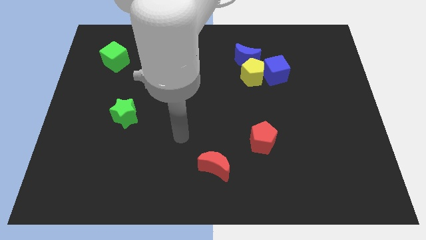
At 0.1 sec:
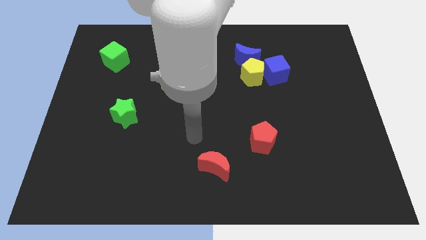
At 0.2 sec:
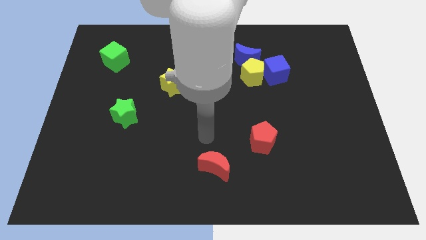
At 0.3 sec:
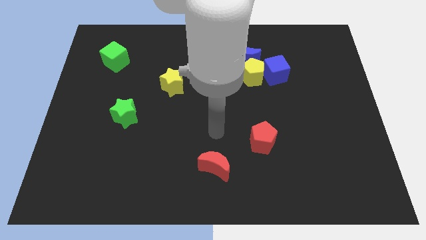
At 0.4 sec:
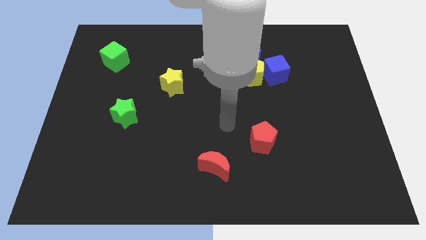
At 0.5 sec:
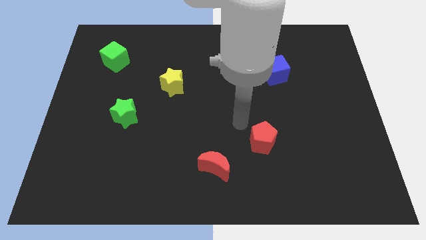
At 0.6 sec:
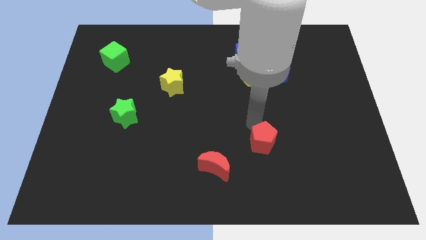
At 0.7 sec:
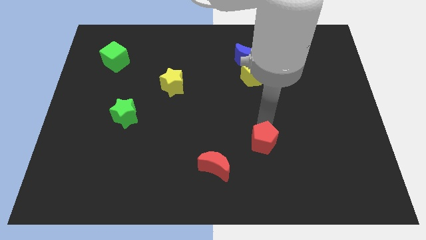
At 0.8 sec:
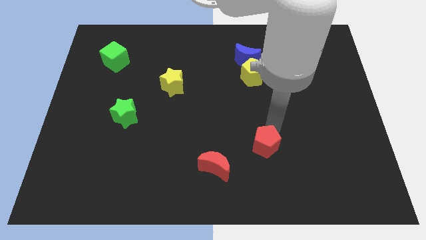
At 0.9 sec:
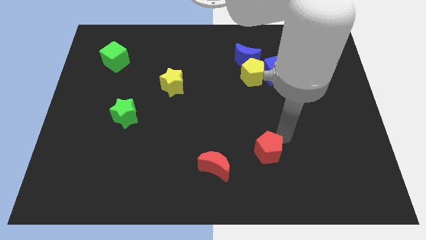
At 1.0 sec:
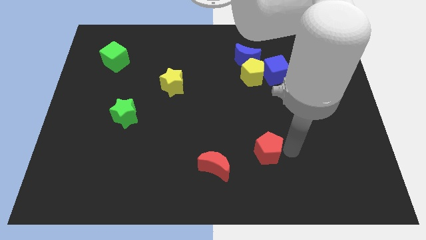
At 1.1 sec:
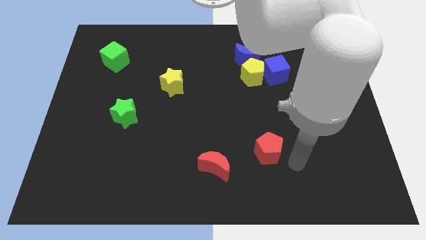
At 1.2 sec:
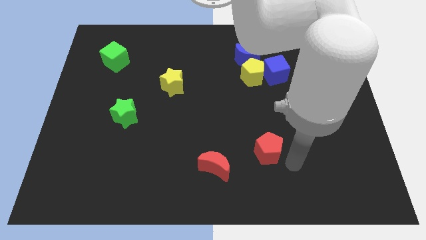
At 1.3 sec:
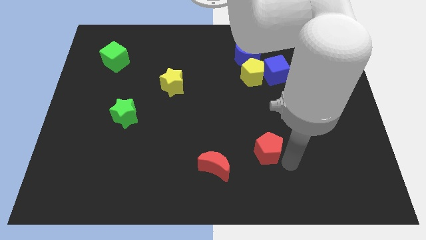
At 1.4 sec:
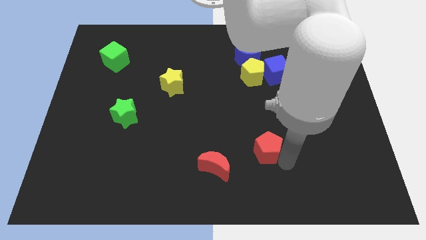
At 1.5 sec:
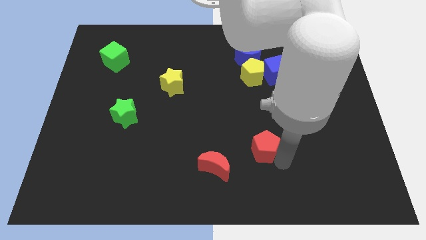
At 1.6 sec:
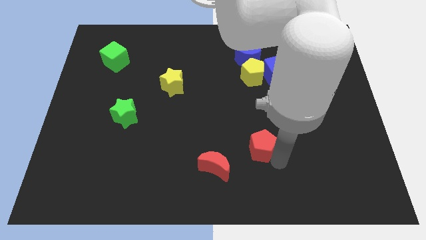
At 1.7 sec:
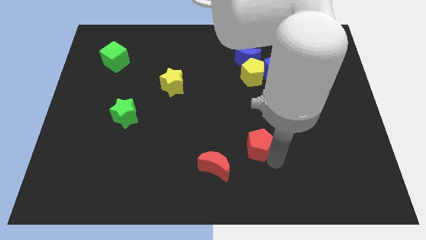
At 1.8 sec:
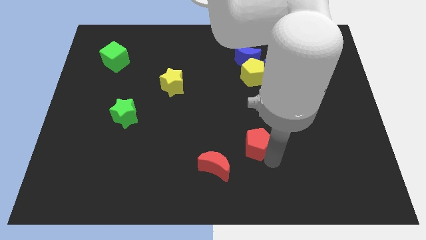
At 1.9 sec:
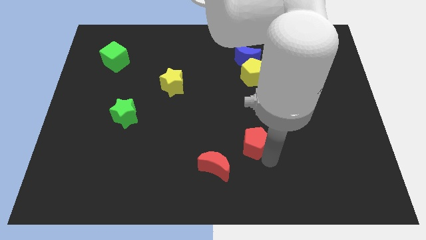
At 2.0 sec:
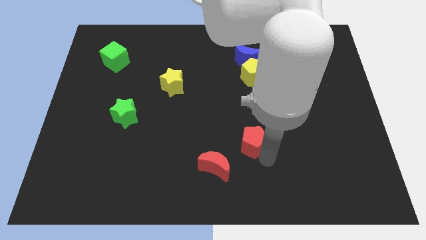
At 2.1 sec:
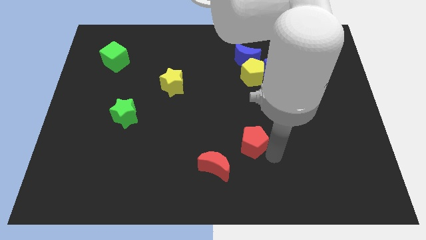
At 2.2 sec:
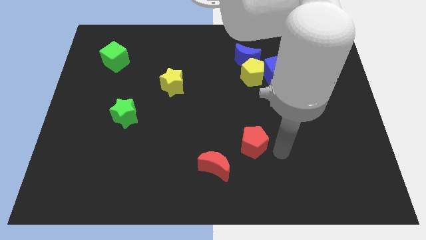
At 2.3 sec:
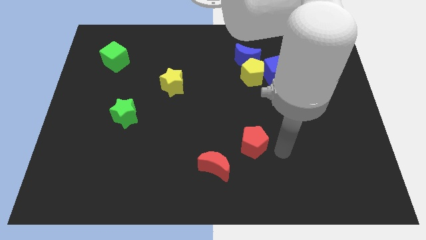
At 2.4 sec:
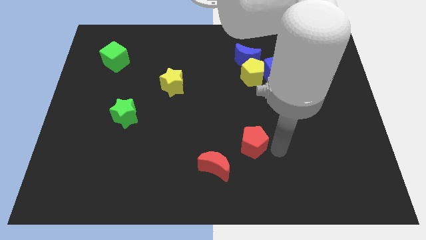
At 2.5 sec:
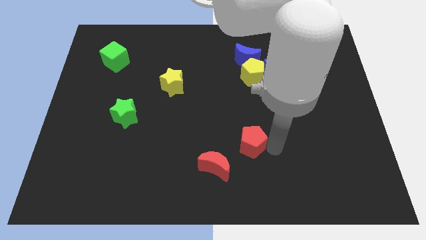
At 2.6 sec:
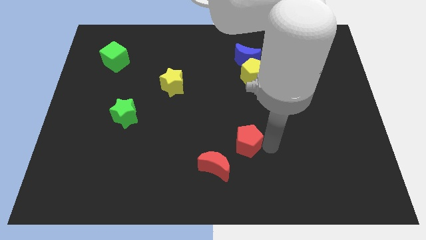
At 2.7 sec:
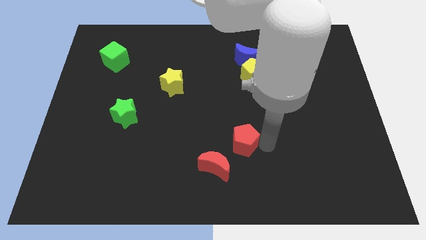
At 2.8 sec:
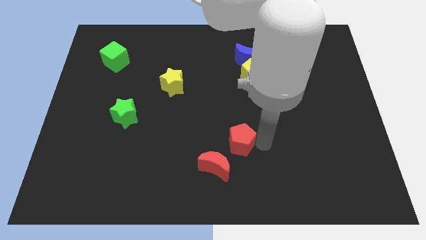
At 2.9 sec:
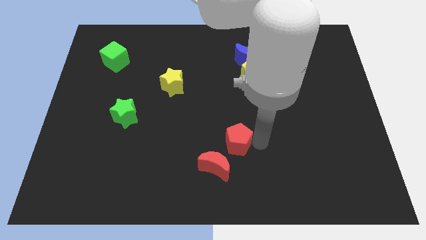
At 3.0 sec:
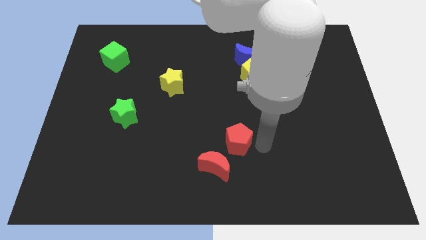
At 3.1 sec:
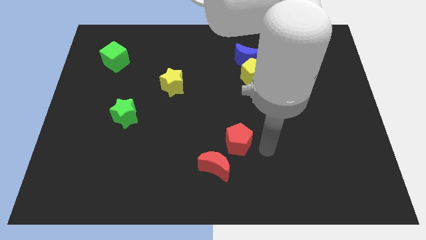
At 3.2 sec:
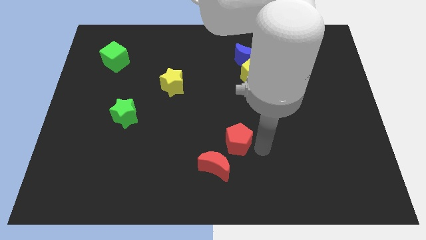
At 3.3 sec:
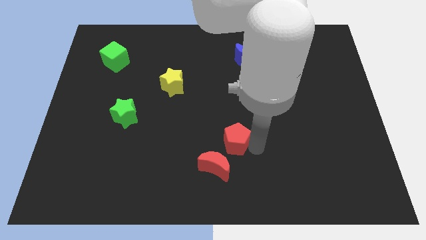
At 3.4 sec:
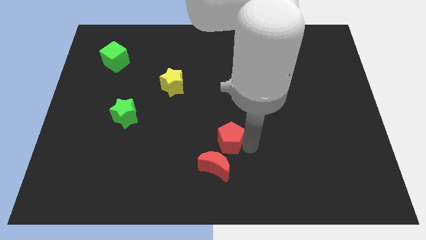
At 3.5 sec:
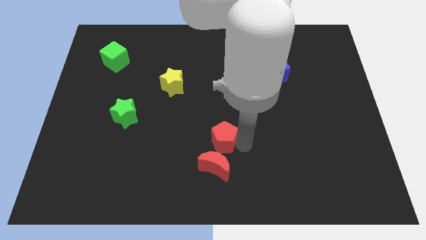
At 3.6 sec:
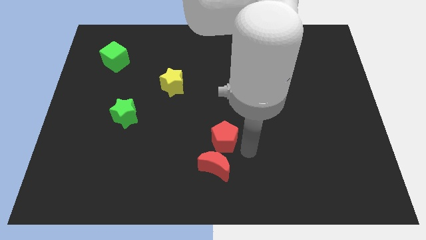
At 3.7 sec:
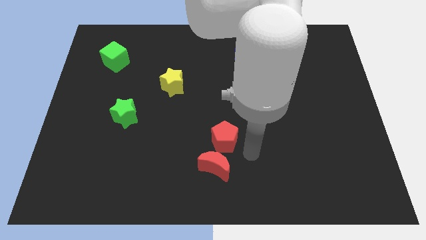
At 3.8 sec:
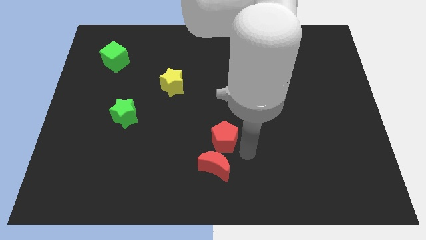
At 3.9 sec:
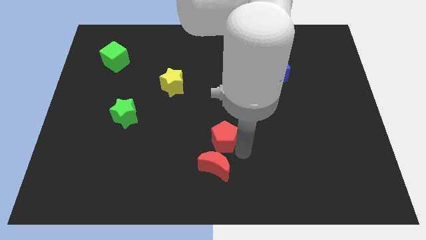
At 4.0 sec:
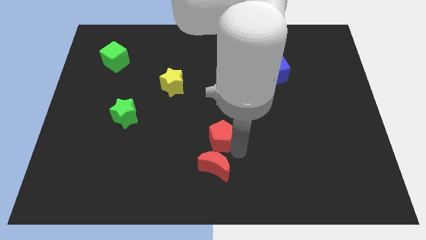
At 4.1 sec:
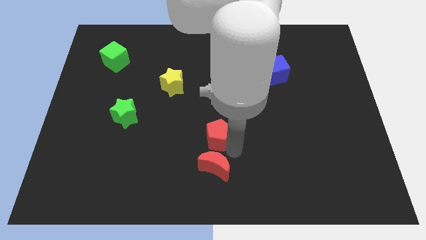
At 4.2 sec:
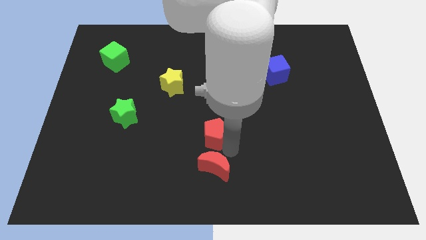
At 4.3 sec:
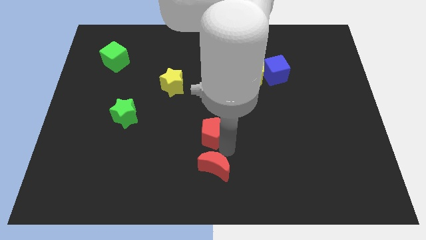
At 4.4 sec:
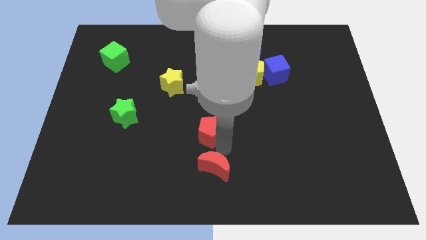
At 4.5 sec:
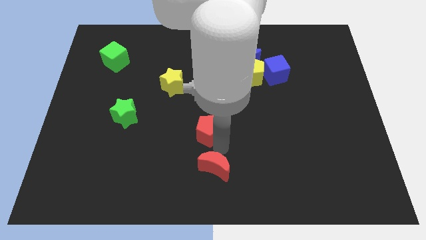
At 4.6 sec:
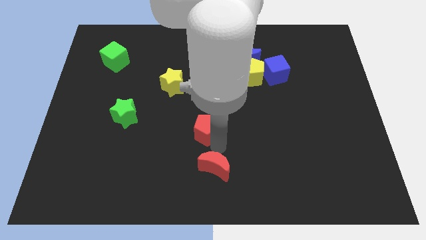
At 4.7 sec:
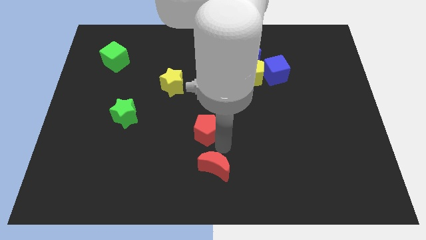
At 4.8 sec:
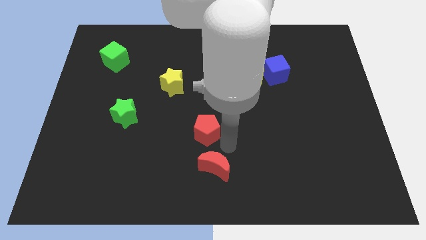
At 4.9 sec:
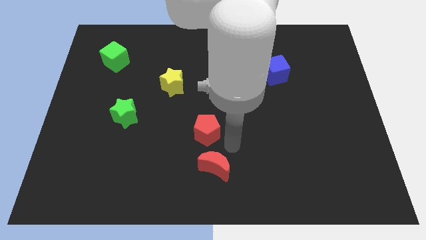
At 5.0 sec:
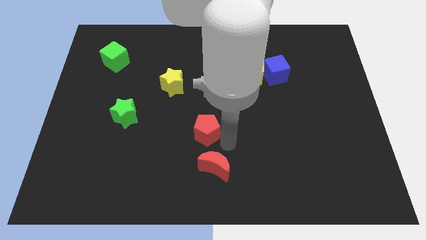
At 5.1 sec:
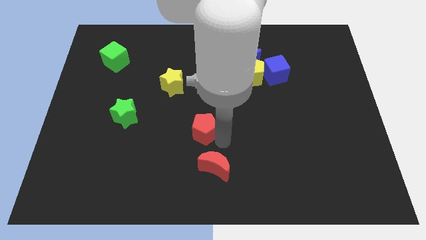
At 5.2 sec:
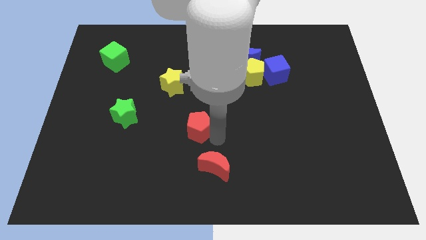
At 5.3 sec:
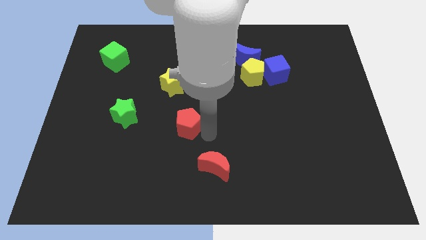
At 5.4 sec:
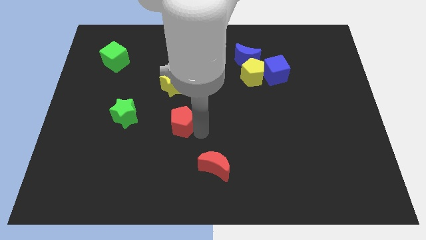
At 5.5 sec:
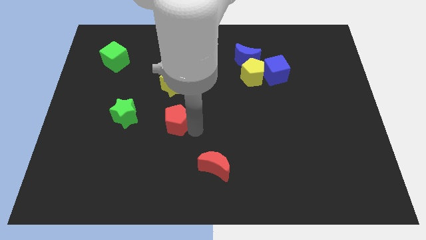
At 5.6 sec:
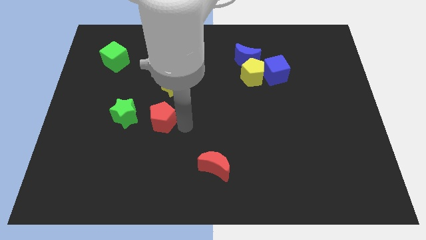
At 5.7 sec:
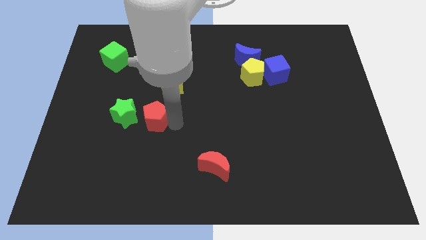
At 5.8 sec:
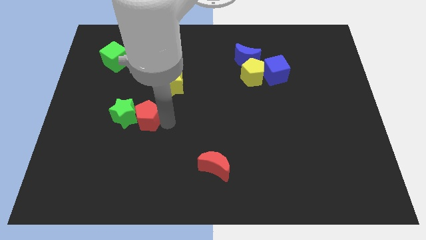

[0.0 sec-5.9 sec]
slide the red pentagon next to the green star

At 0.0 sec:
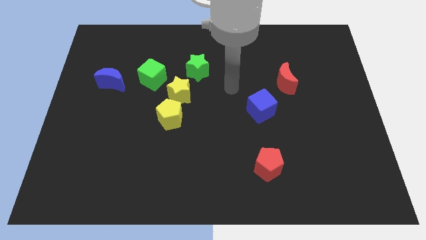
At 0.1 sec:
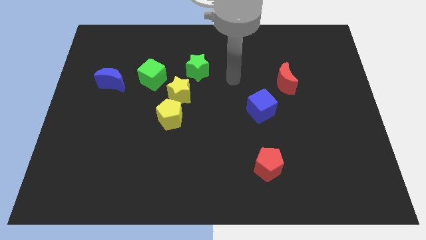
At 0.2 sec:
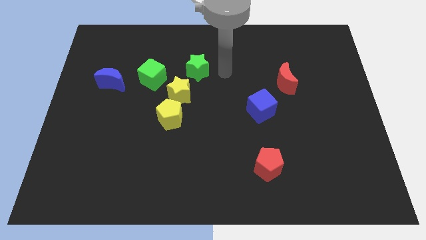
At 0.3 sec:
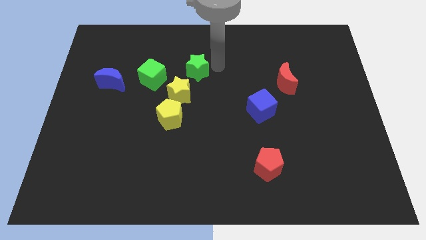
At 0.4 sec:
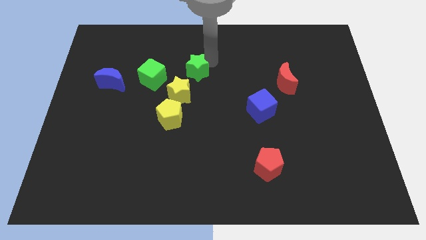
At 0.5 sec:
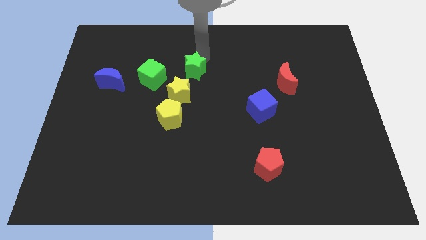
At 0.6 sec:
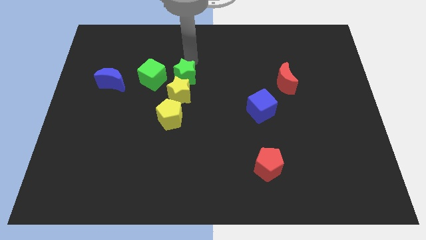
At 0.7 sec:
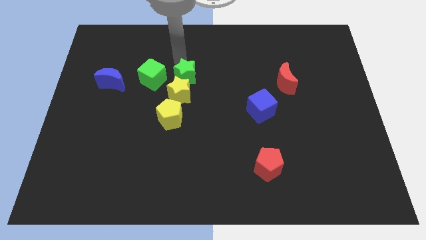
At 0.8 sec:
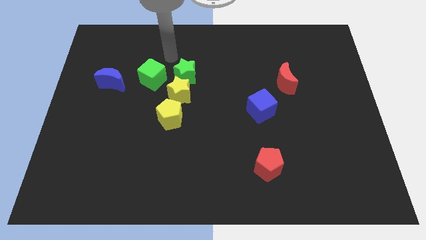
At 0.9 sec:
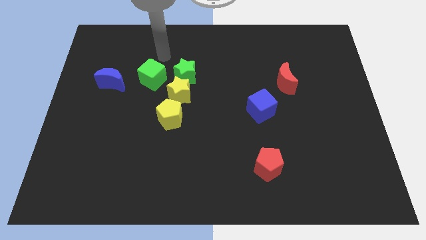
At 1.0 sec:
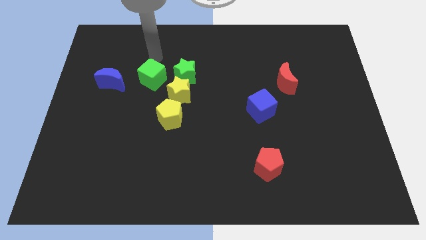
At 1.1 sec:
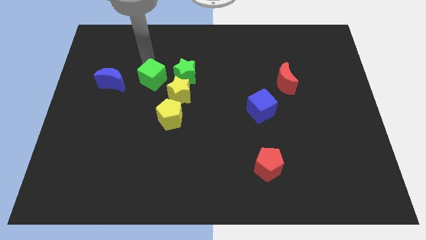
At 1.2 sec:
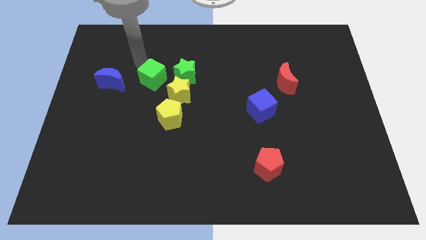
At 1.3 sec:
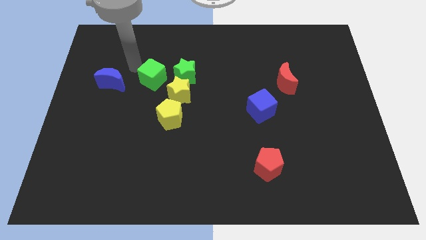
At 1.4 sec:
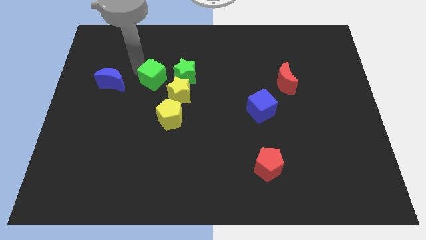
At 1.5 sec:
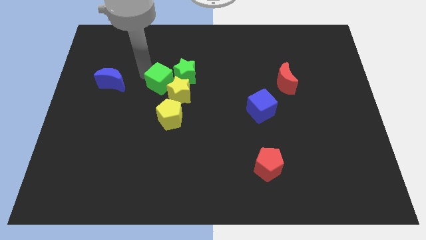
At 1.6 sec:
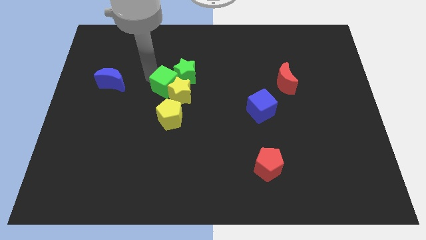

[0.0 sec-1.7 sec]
put the green cube towards the yellow star
